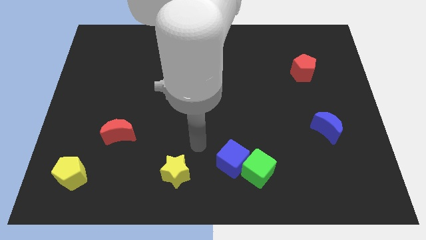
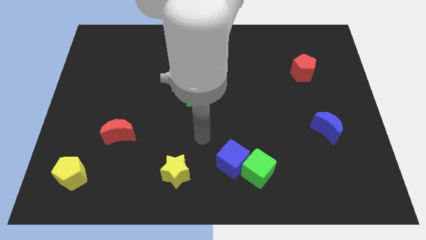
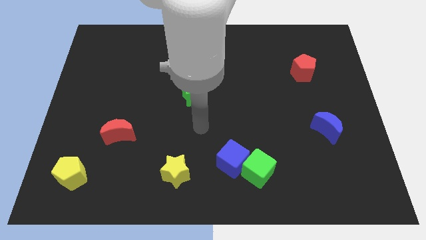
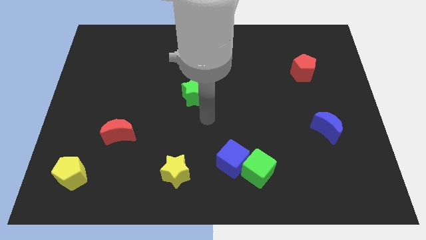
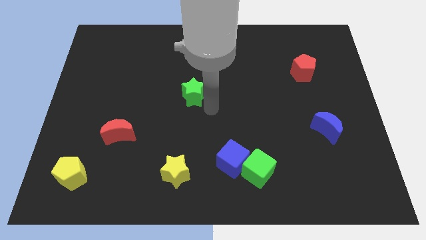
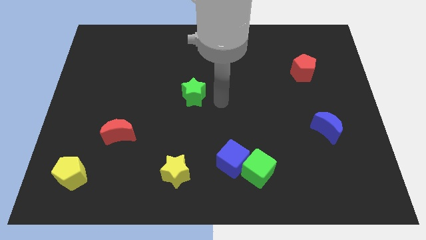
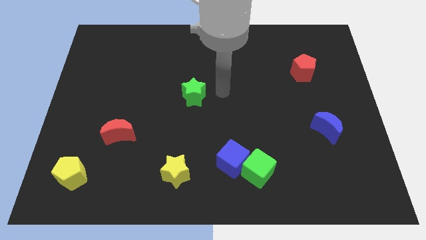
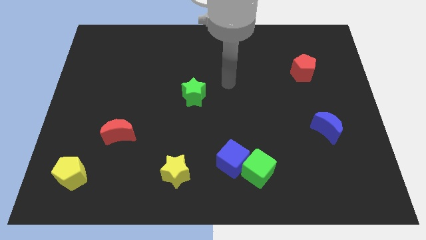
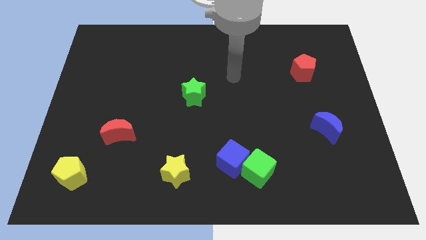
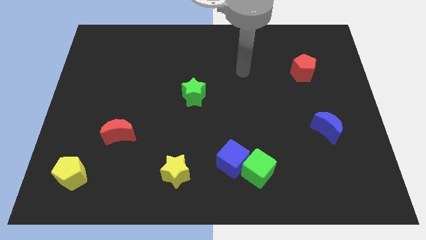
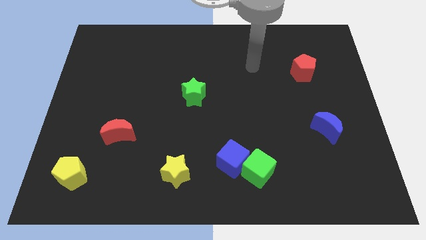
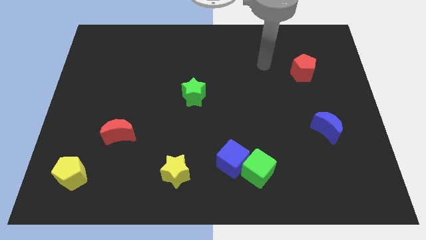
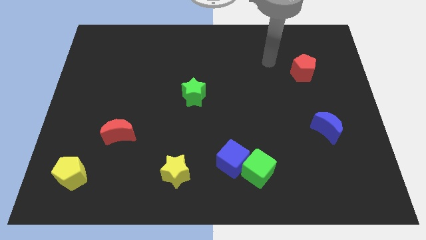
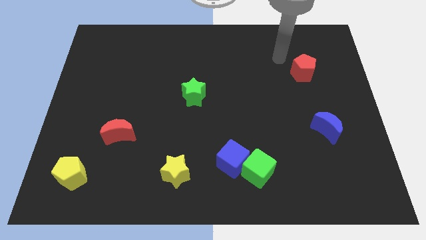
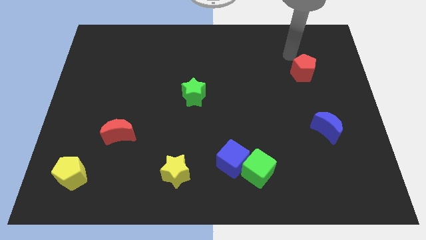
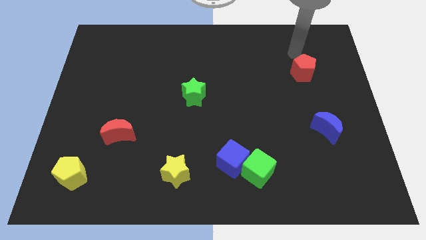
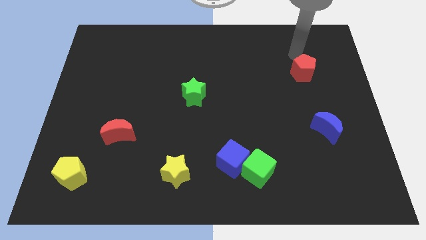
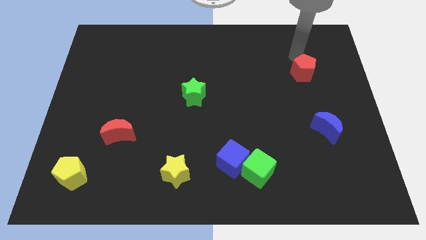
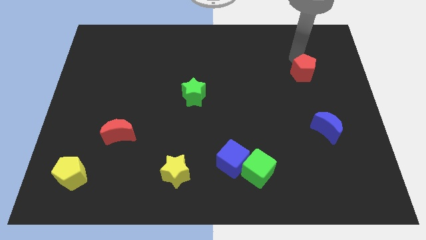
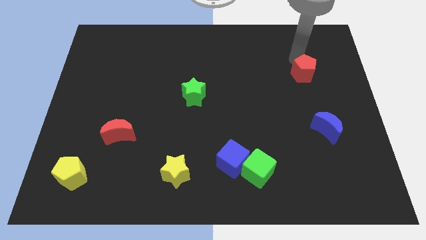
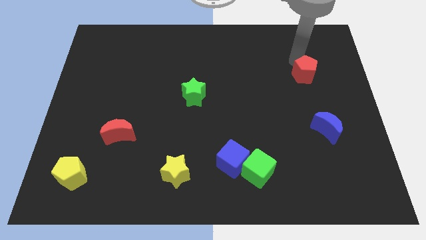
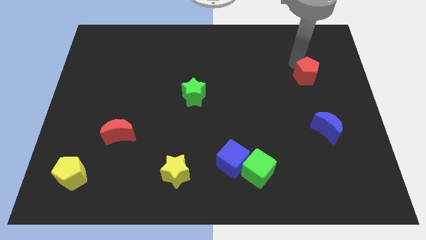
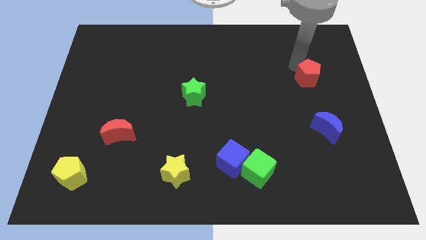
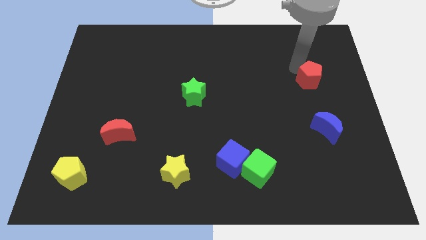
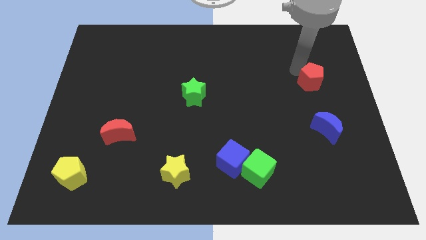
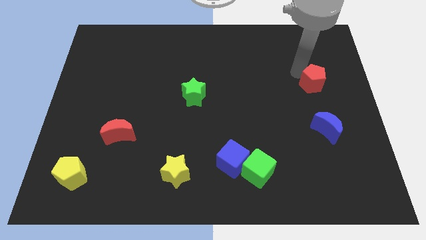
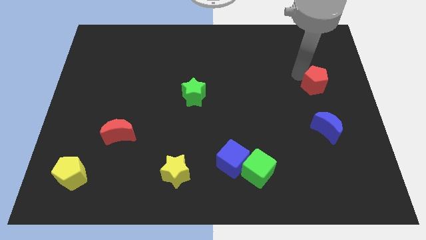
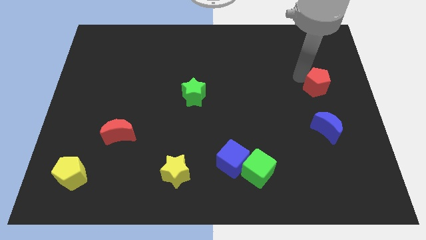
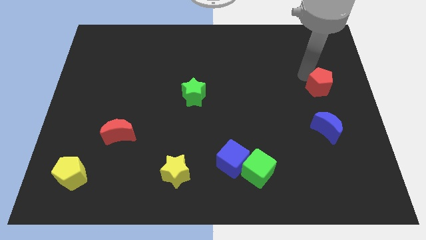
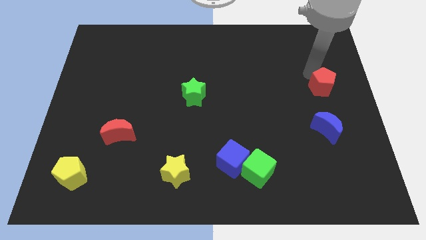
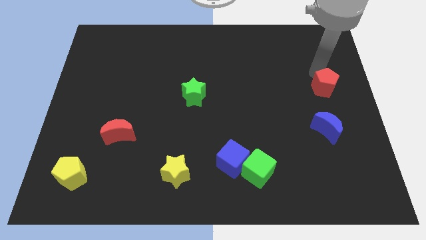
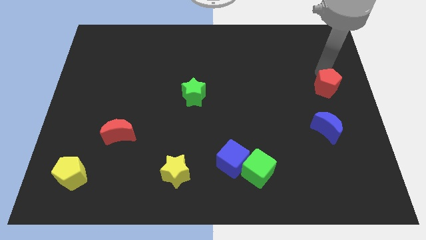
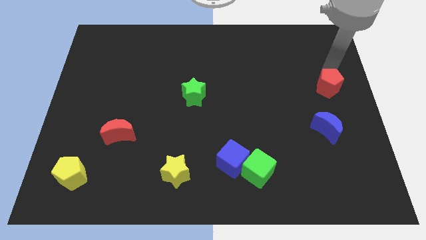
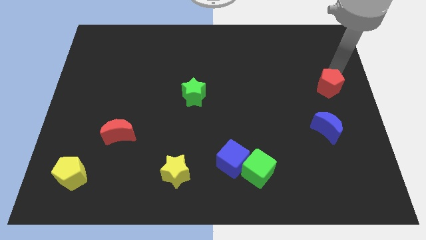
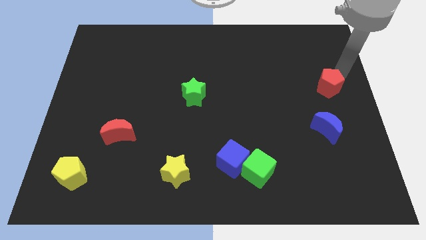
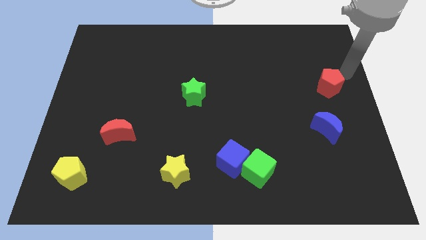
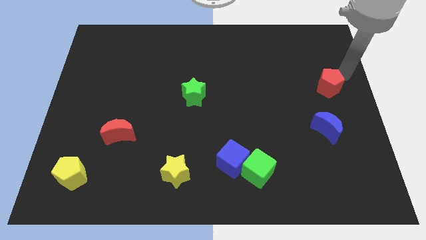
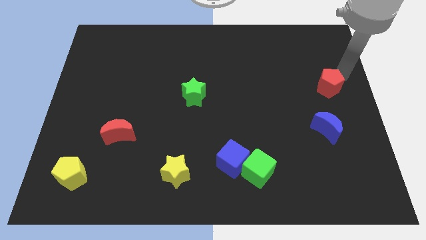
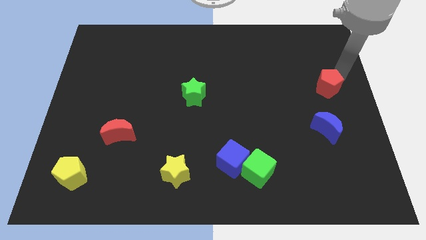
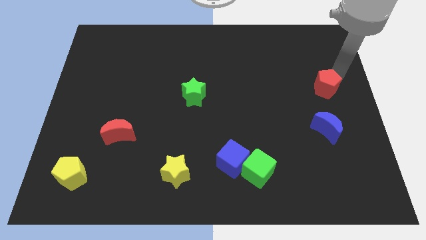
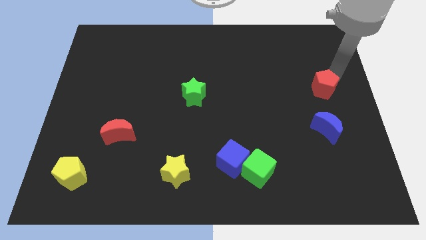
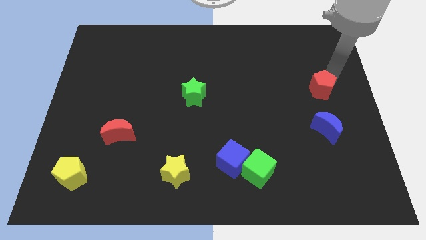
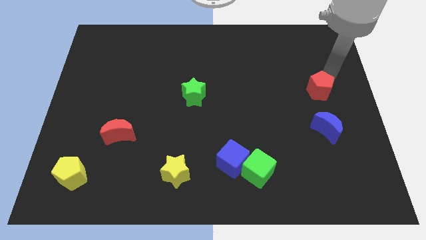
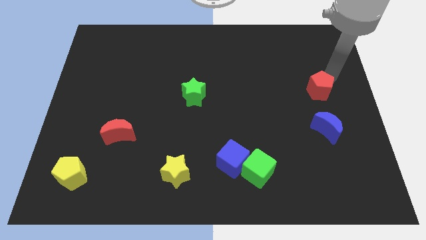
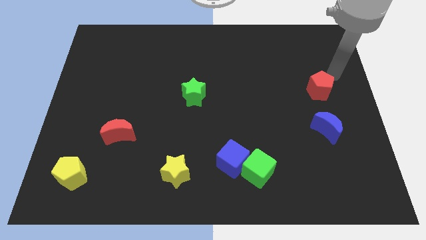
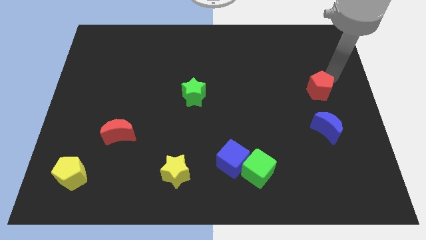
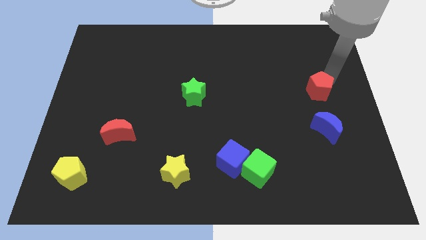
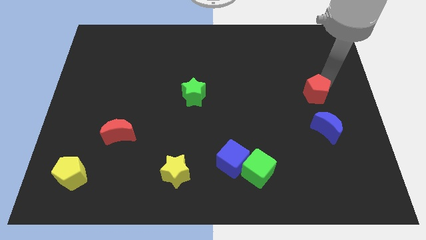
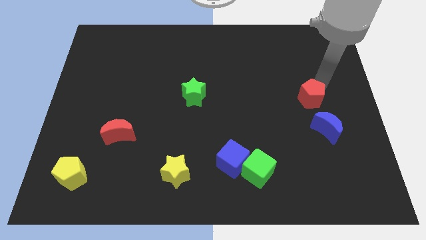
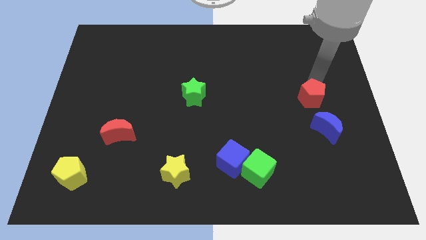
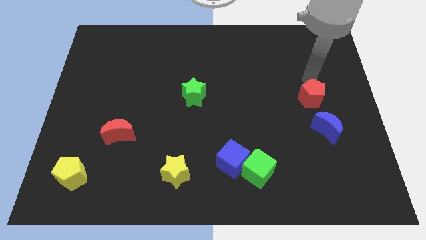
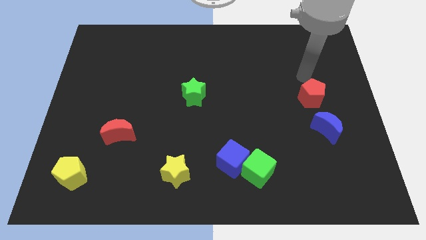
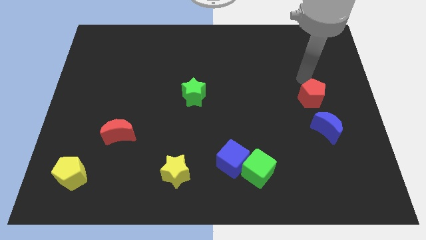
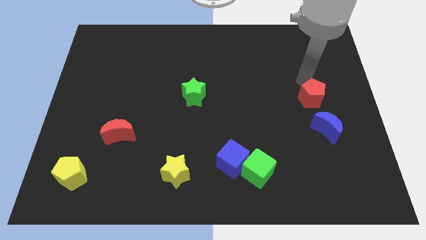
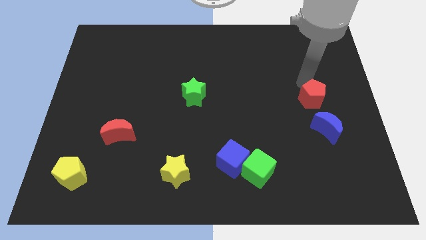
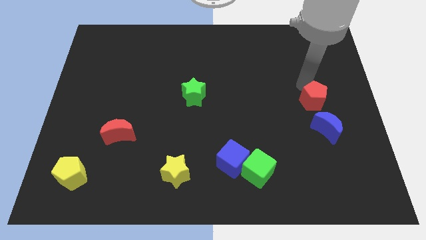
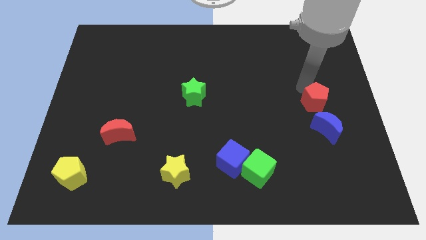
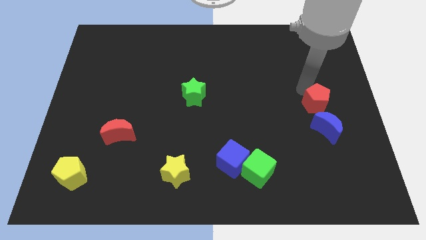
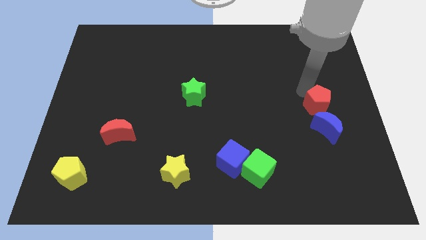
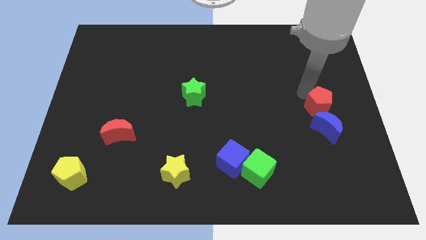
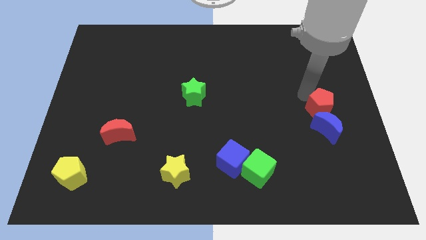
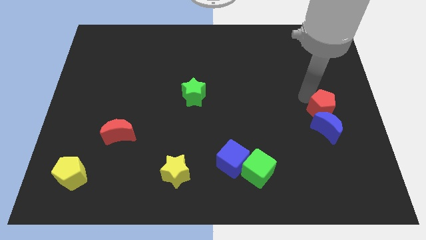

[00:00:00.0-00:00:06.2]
move the red pentagon next to the blue moon
